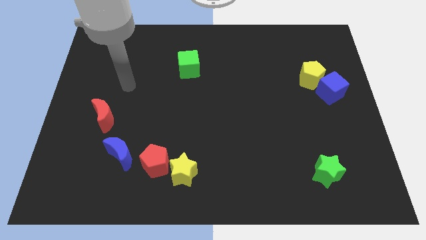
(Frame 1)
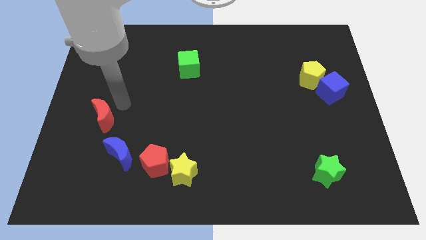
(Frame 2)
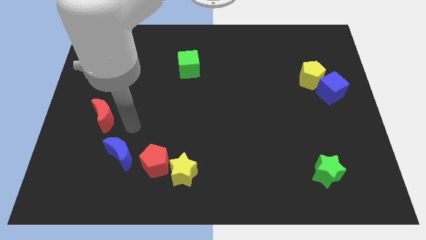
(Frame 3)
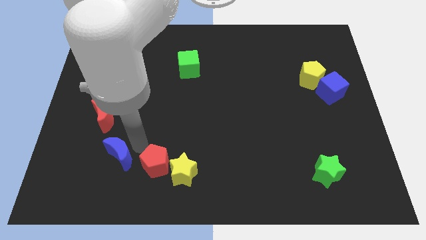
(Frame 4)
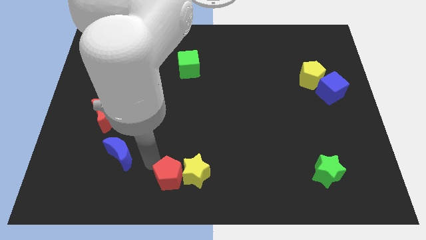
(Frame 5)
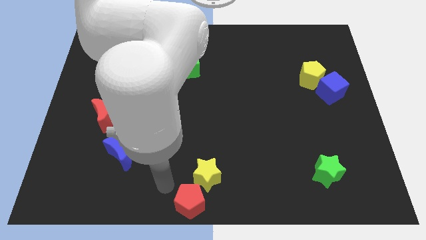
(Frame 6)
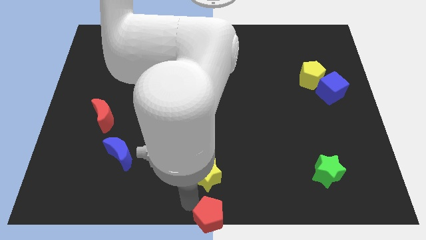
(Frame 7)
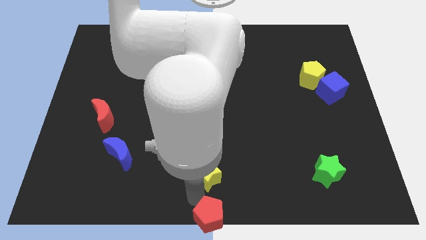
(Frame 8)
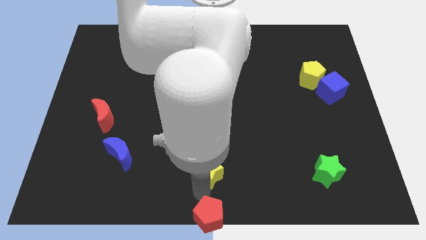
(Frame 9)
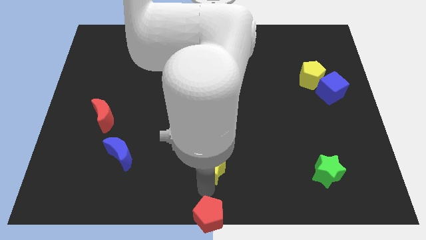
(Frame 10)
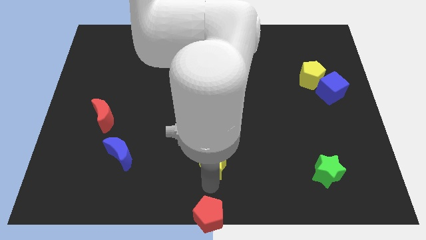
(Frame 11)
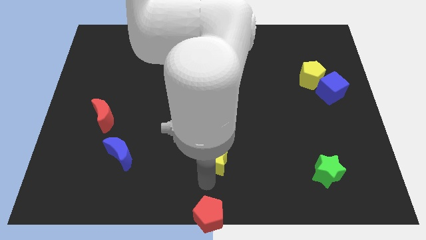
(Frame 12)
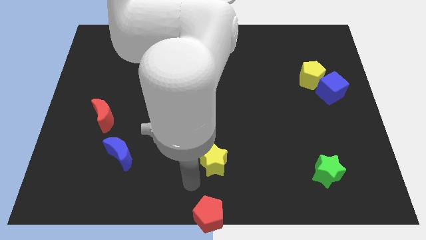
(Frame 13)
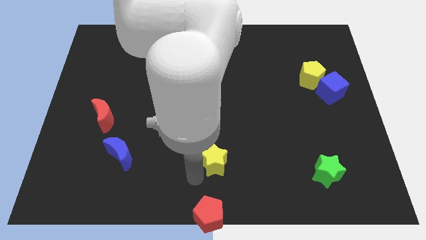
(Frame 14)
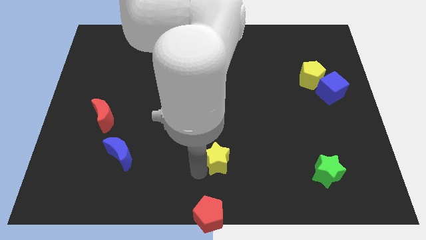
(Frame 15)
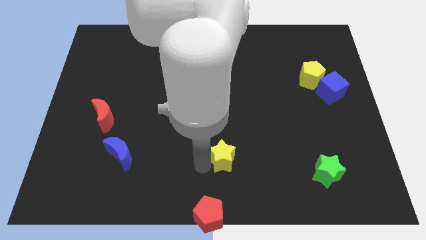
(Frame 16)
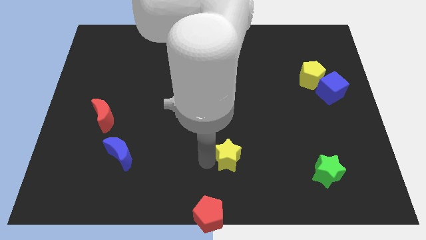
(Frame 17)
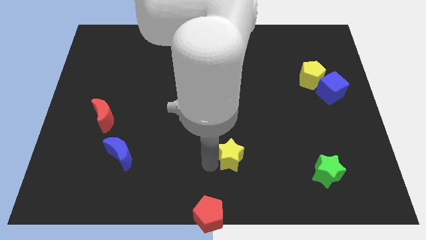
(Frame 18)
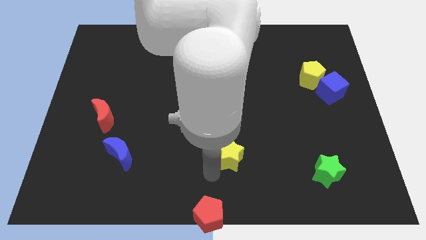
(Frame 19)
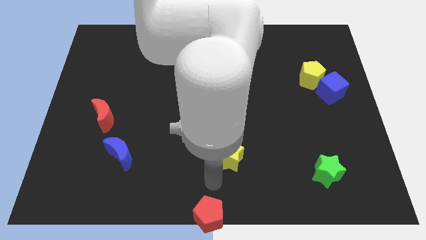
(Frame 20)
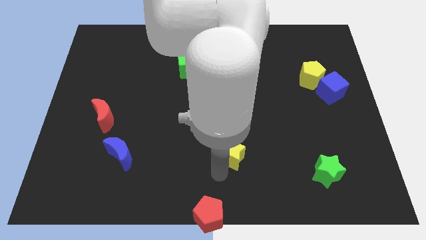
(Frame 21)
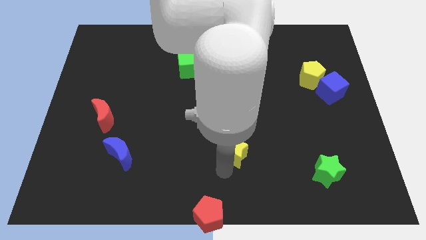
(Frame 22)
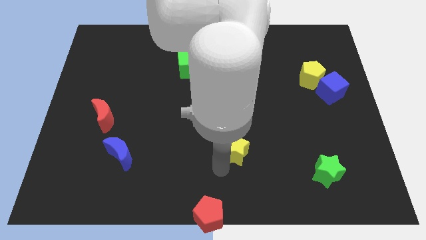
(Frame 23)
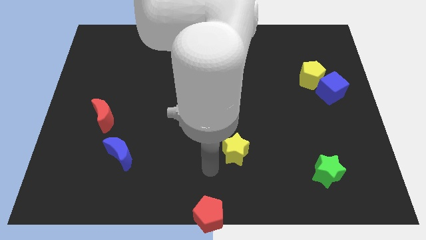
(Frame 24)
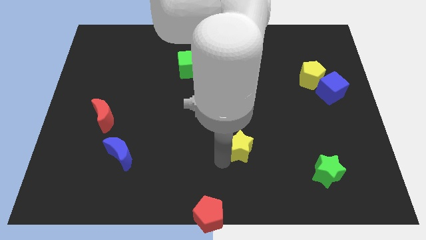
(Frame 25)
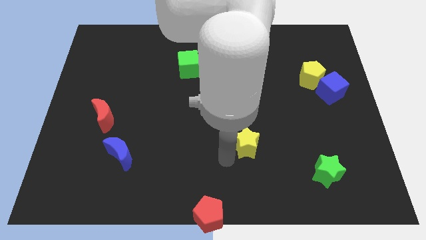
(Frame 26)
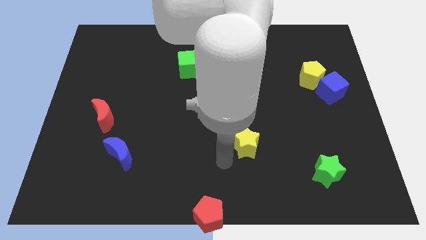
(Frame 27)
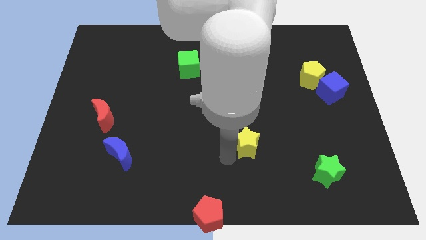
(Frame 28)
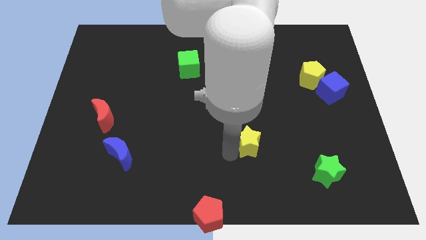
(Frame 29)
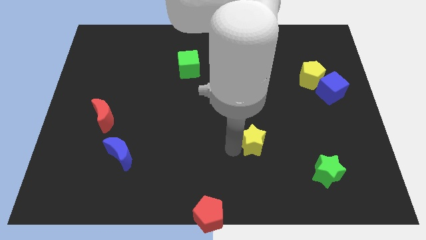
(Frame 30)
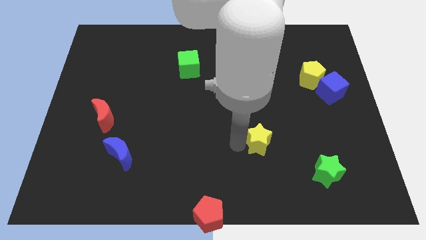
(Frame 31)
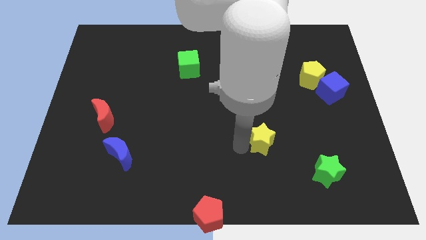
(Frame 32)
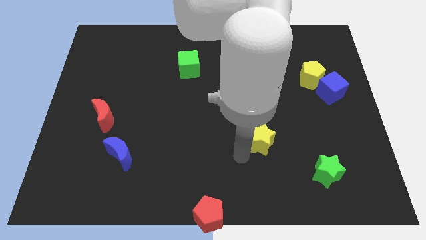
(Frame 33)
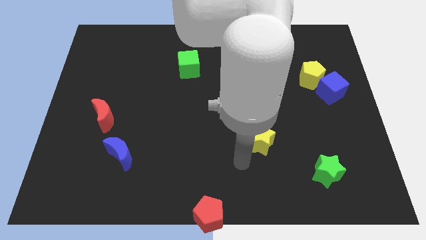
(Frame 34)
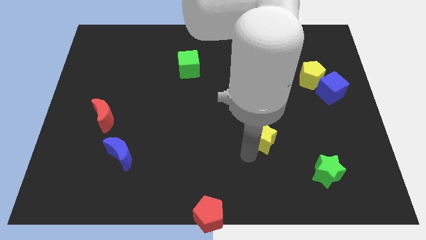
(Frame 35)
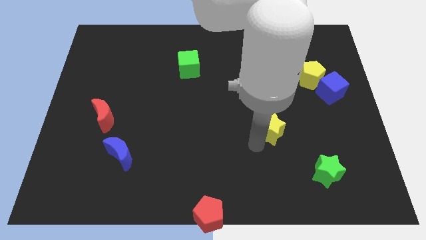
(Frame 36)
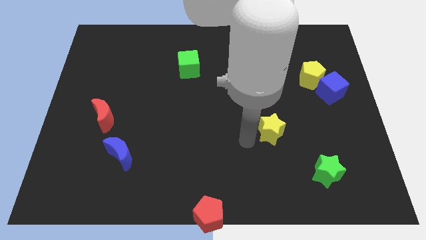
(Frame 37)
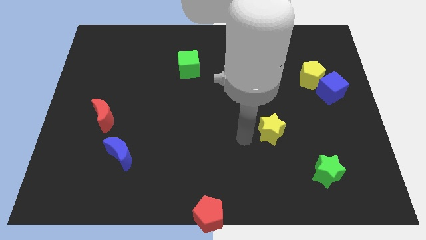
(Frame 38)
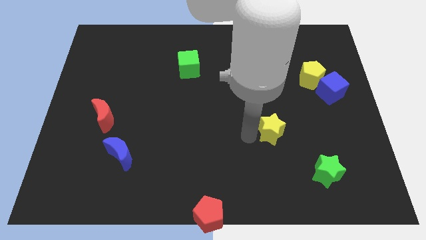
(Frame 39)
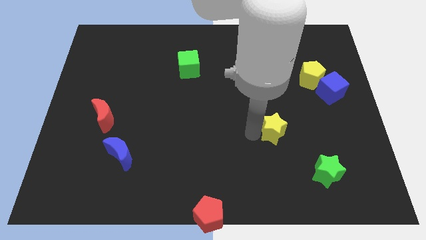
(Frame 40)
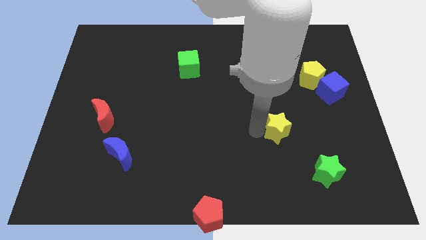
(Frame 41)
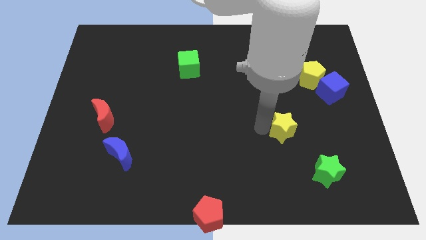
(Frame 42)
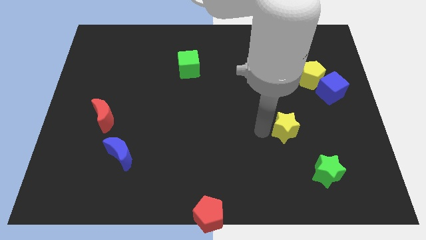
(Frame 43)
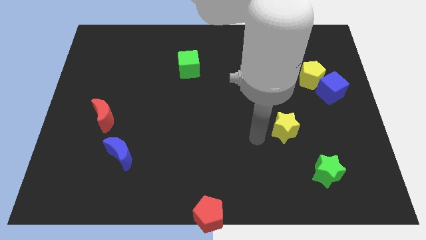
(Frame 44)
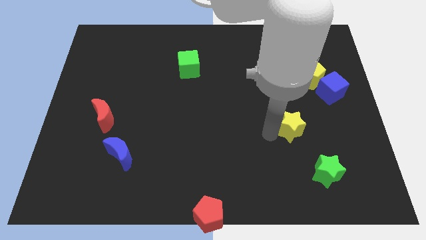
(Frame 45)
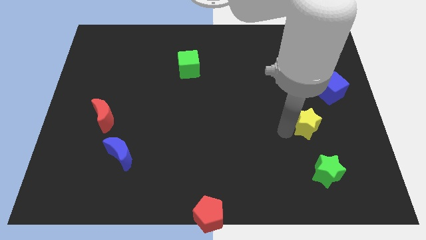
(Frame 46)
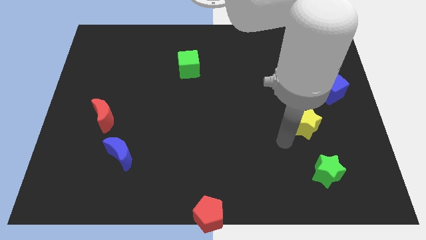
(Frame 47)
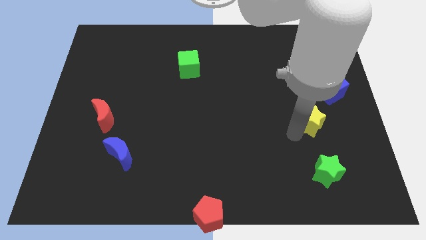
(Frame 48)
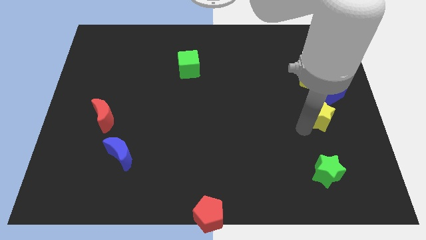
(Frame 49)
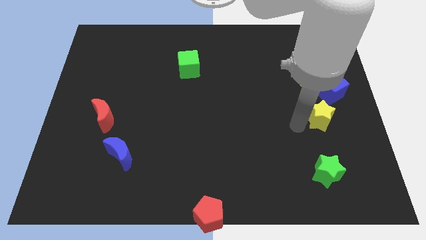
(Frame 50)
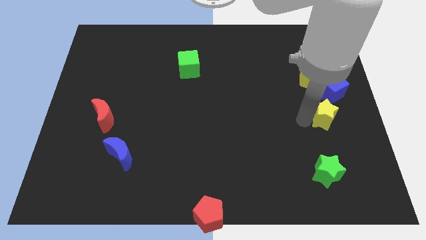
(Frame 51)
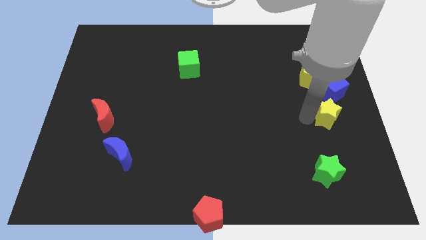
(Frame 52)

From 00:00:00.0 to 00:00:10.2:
slide the yellow star to the right side

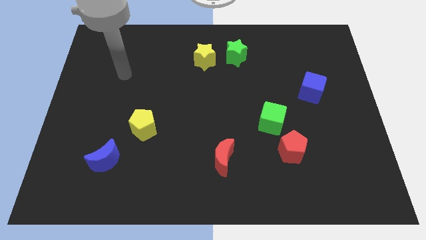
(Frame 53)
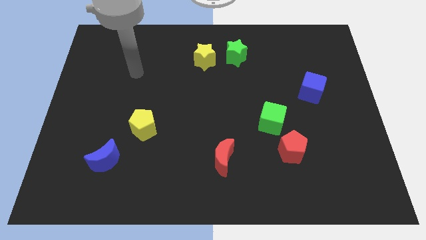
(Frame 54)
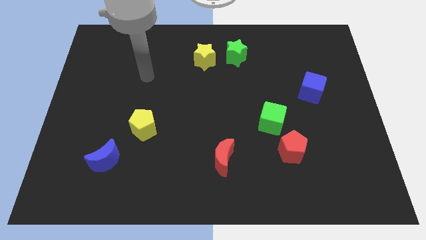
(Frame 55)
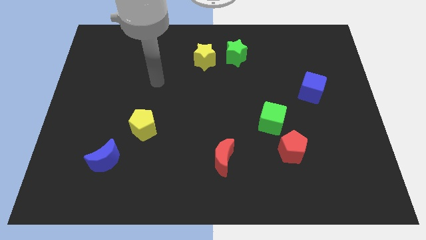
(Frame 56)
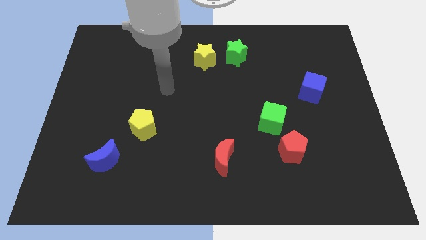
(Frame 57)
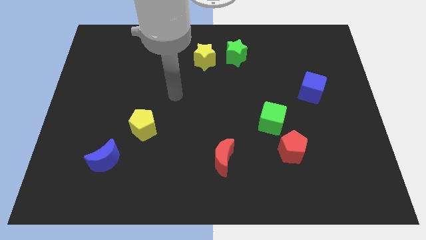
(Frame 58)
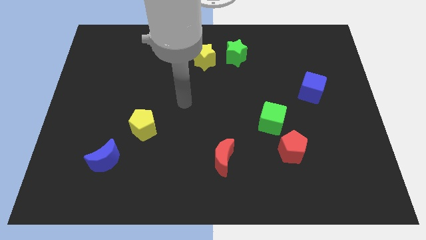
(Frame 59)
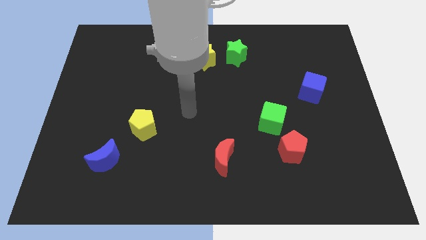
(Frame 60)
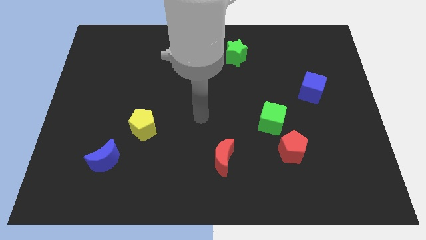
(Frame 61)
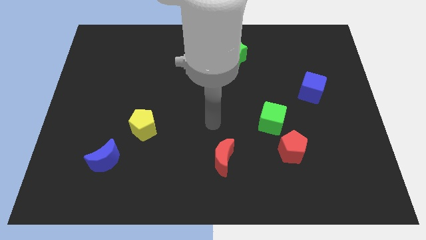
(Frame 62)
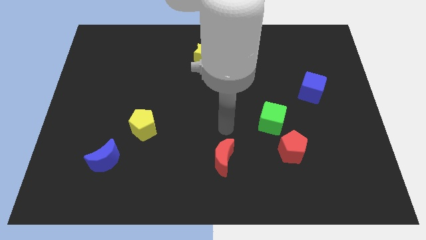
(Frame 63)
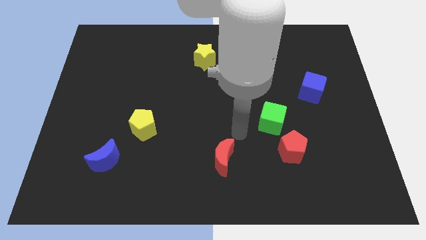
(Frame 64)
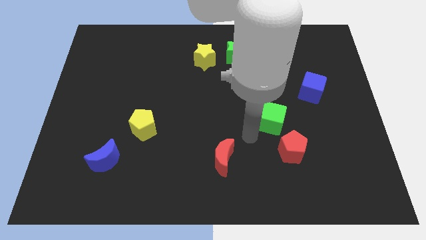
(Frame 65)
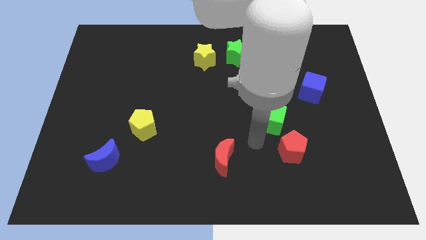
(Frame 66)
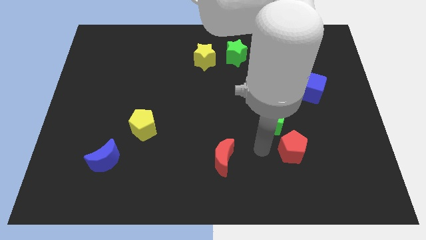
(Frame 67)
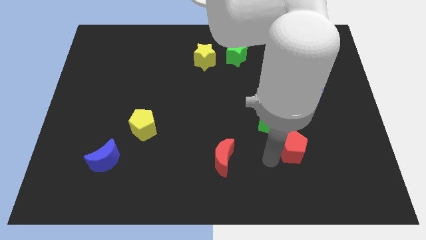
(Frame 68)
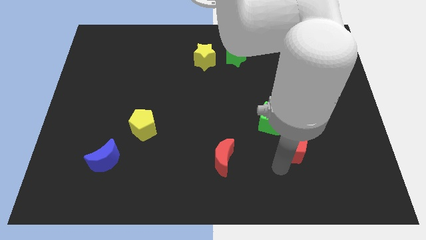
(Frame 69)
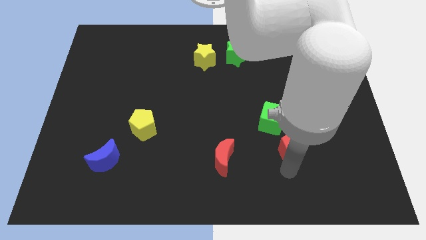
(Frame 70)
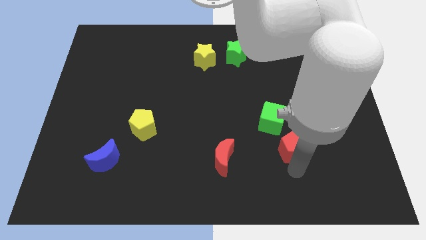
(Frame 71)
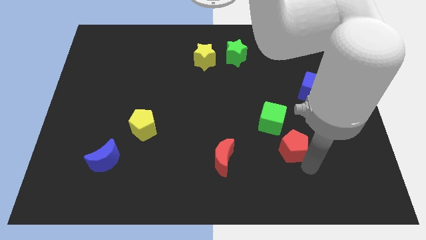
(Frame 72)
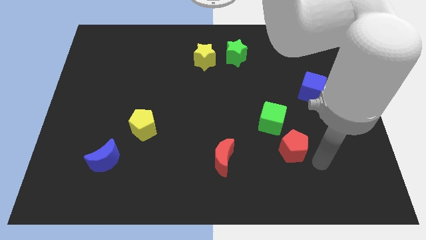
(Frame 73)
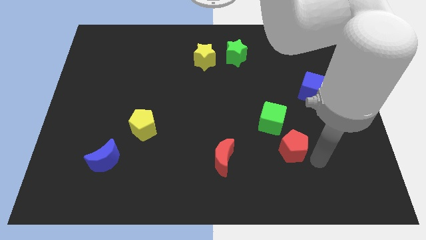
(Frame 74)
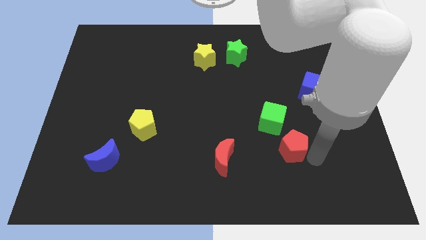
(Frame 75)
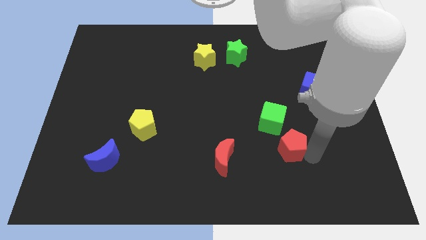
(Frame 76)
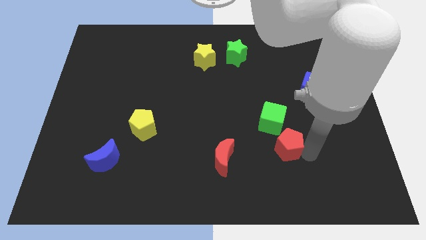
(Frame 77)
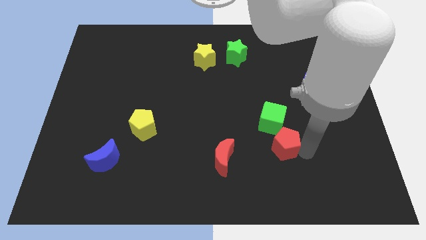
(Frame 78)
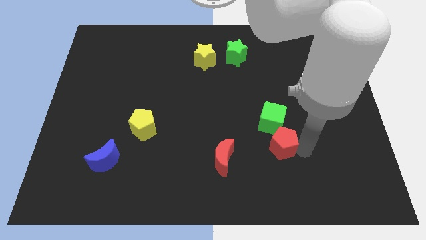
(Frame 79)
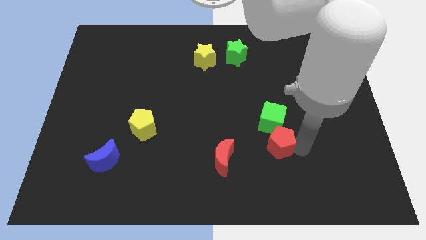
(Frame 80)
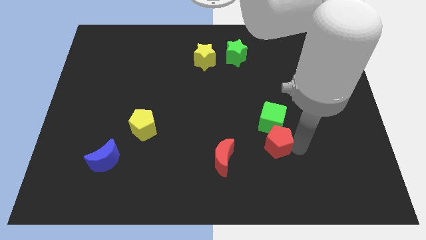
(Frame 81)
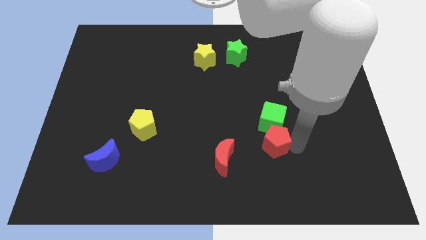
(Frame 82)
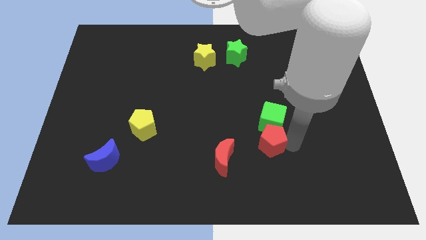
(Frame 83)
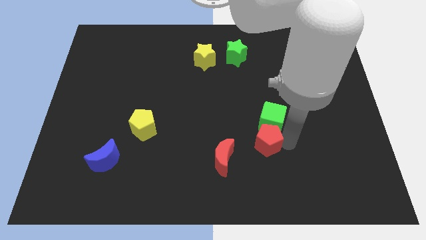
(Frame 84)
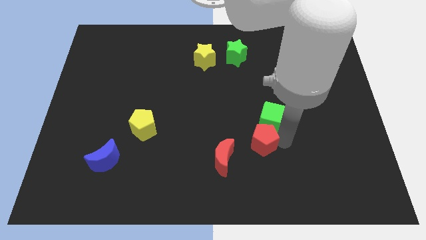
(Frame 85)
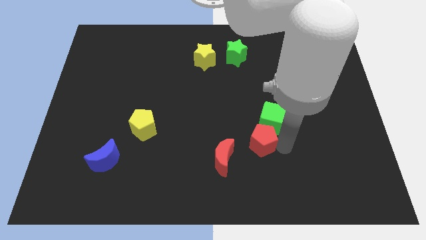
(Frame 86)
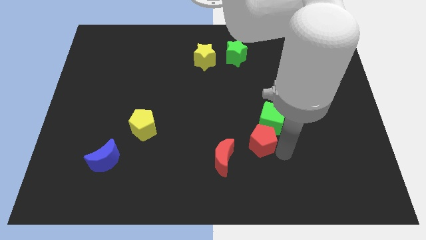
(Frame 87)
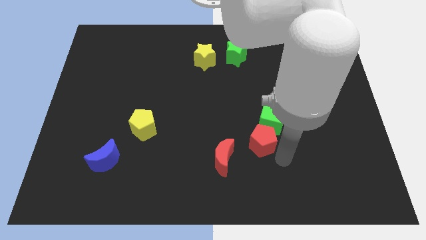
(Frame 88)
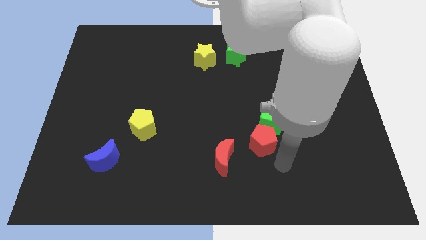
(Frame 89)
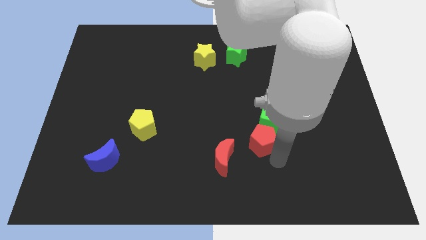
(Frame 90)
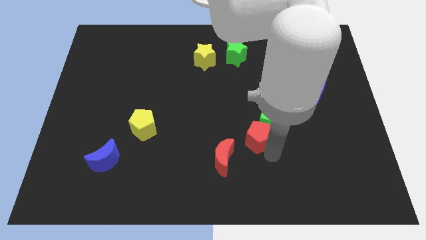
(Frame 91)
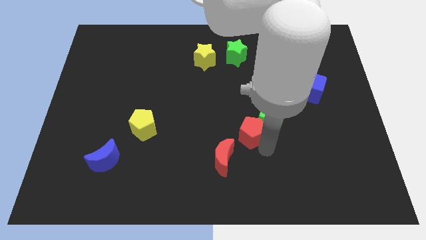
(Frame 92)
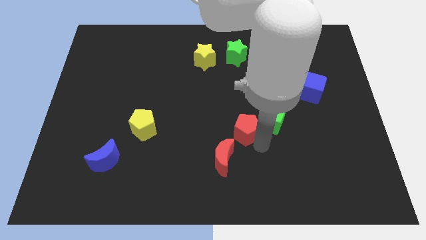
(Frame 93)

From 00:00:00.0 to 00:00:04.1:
slide the red pentagon to the middle of the board
